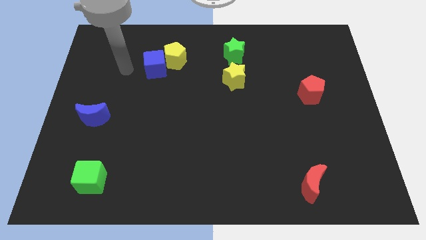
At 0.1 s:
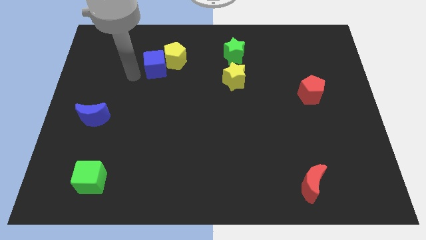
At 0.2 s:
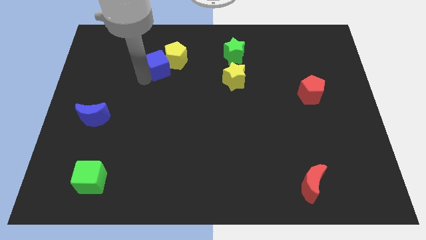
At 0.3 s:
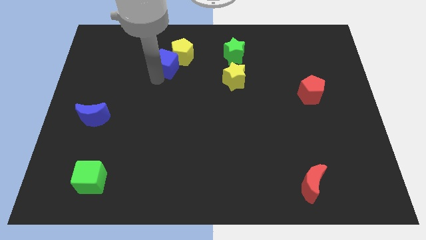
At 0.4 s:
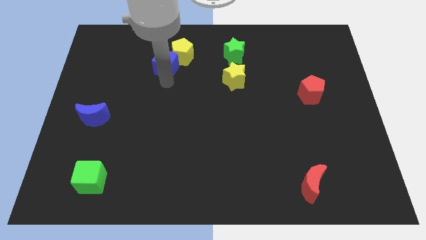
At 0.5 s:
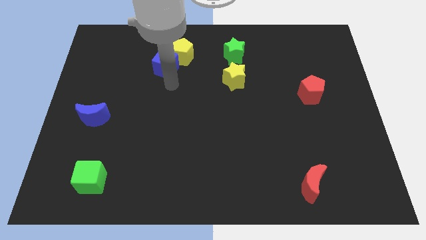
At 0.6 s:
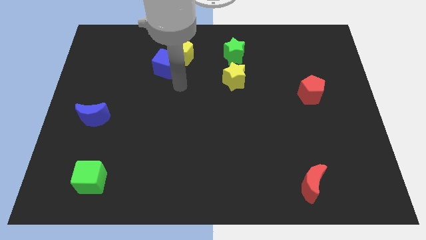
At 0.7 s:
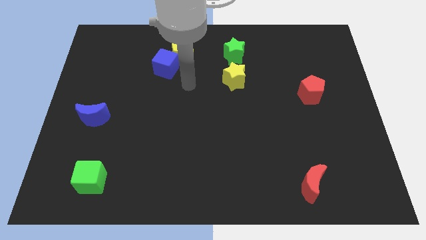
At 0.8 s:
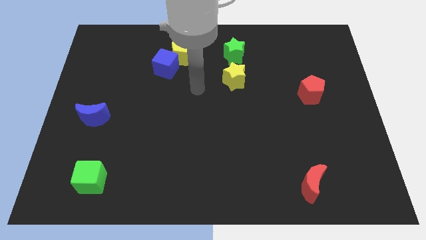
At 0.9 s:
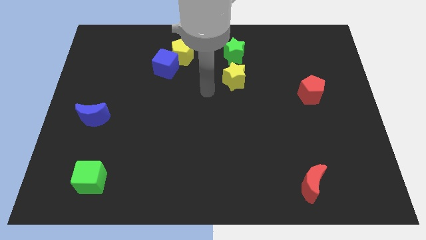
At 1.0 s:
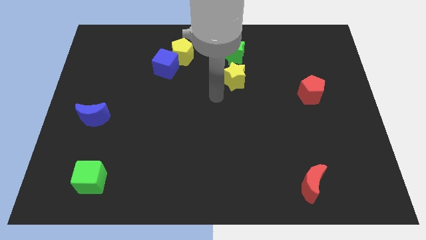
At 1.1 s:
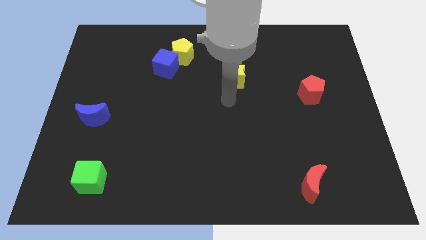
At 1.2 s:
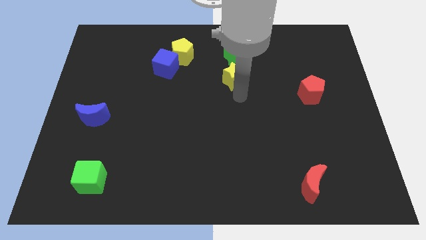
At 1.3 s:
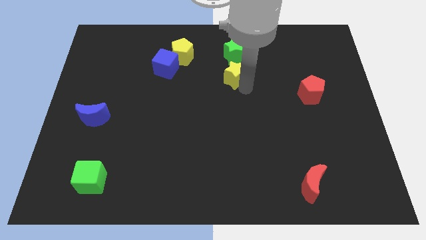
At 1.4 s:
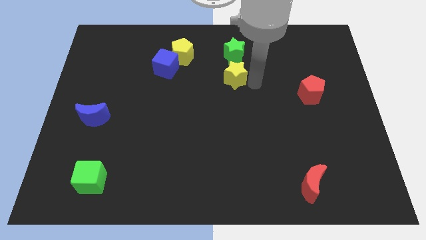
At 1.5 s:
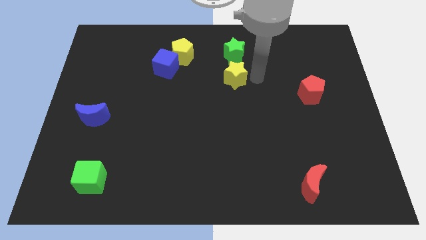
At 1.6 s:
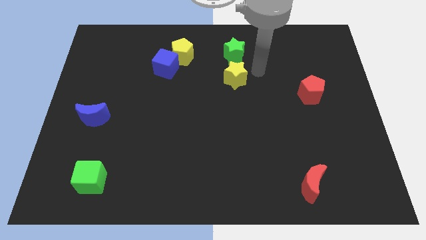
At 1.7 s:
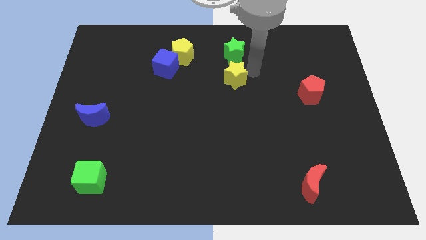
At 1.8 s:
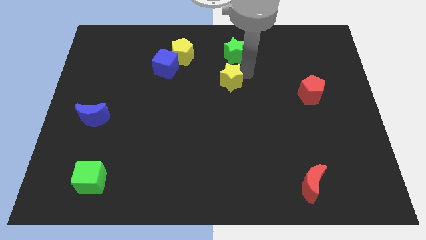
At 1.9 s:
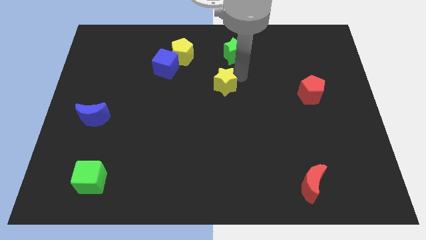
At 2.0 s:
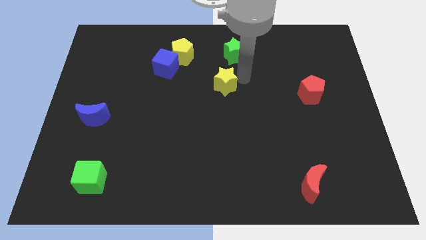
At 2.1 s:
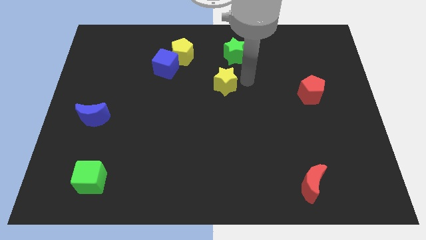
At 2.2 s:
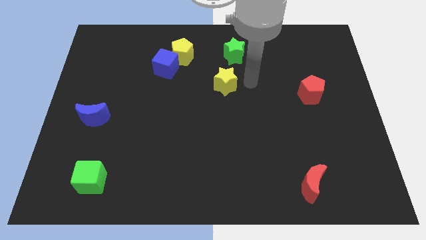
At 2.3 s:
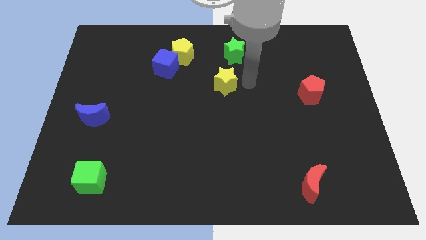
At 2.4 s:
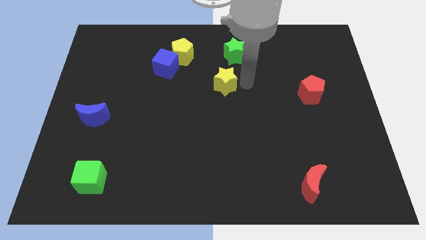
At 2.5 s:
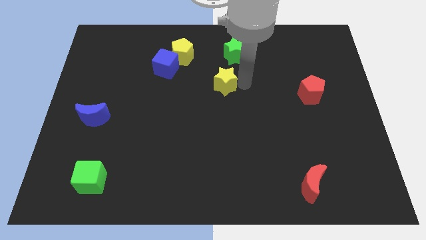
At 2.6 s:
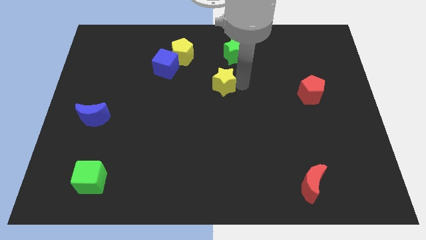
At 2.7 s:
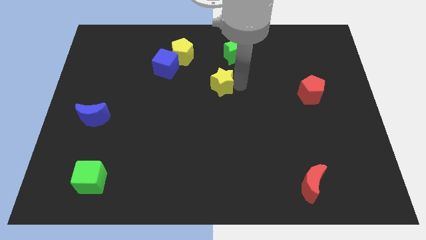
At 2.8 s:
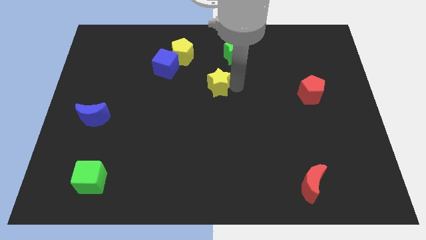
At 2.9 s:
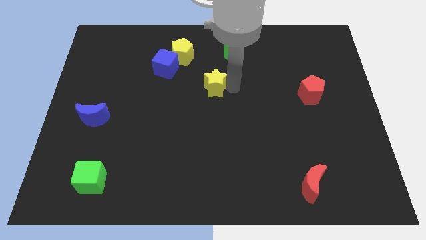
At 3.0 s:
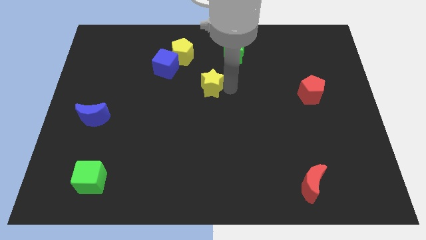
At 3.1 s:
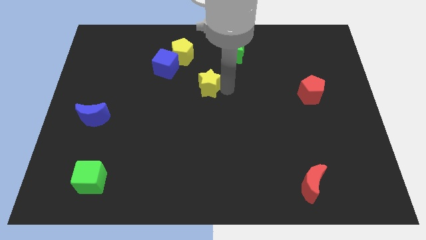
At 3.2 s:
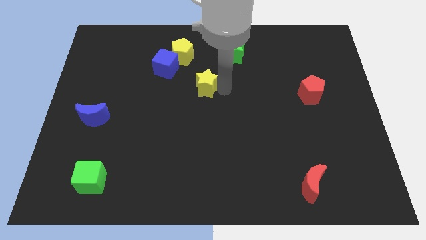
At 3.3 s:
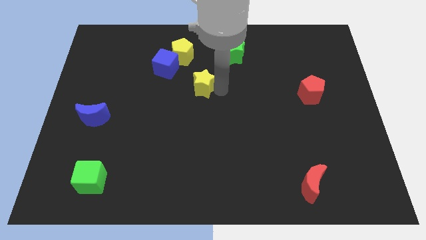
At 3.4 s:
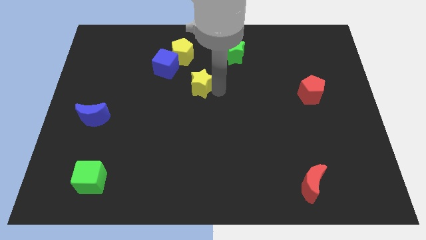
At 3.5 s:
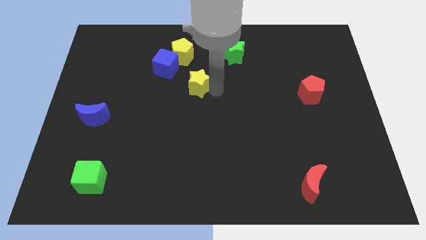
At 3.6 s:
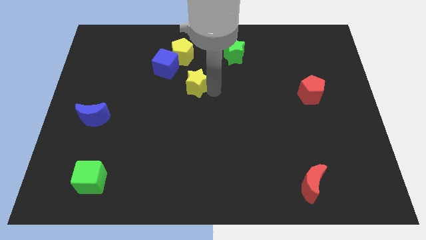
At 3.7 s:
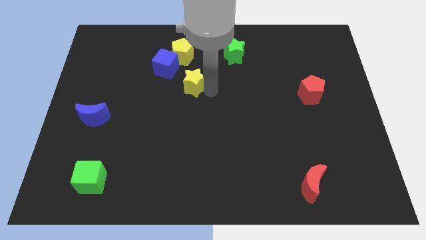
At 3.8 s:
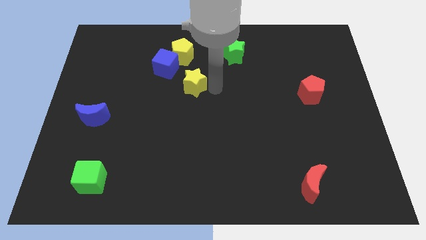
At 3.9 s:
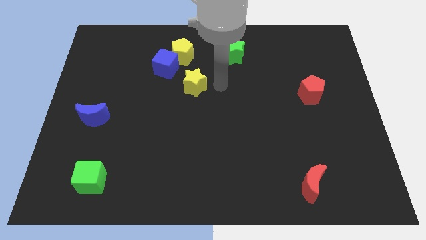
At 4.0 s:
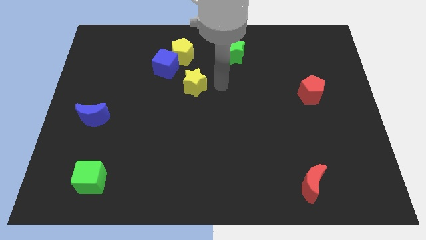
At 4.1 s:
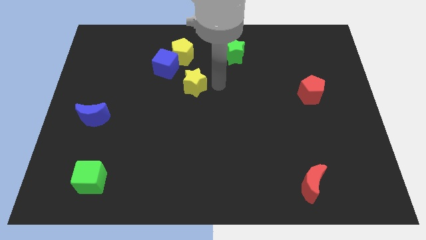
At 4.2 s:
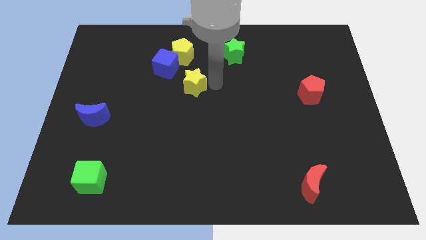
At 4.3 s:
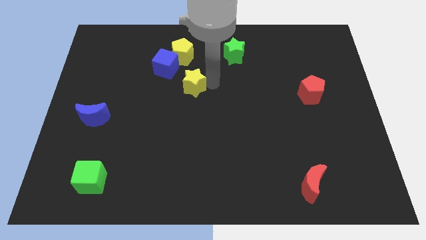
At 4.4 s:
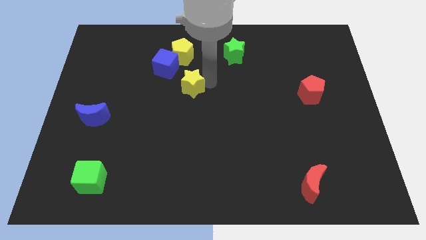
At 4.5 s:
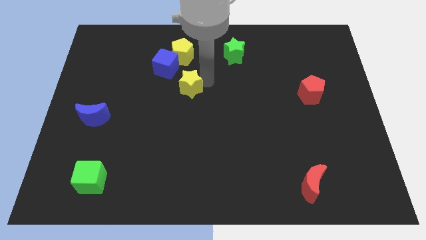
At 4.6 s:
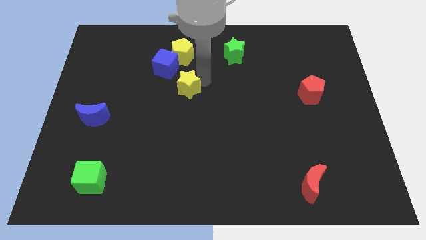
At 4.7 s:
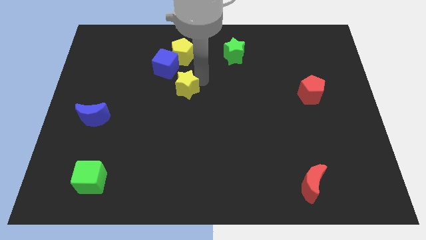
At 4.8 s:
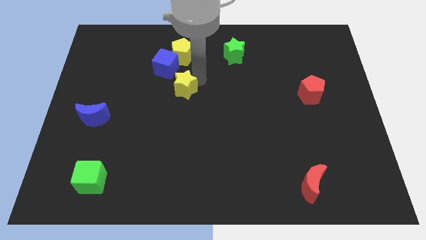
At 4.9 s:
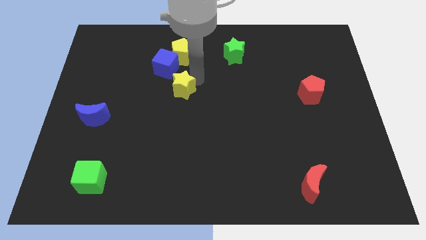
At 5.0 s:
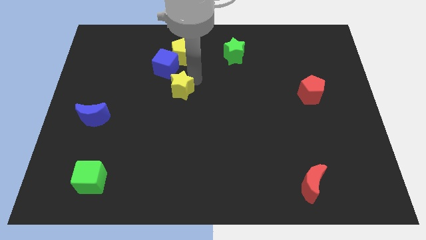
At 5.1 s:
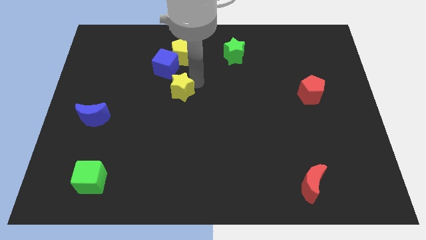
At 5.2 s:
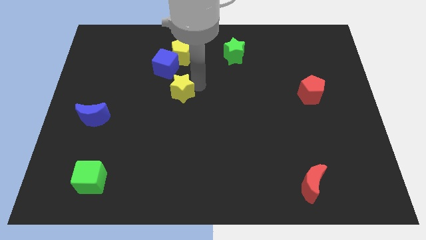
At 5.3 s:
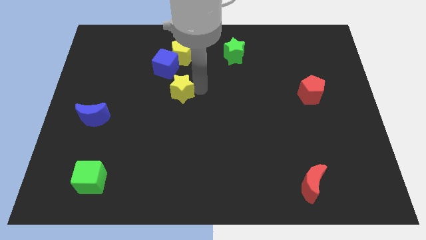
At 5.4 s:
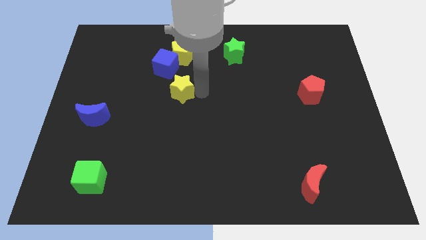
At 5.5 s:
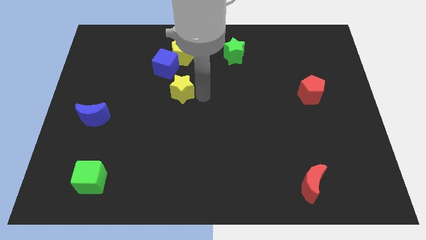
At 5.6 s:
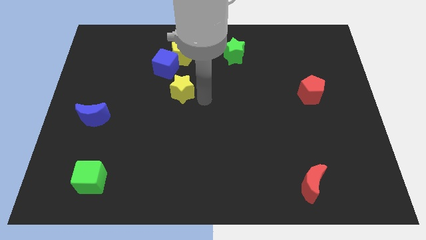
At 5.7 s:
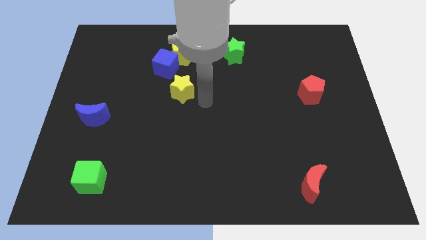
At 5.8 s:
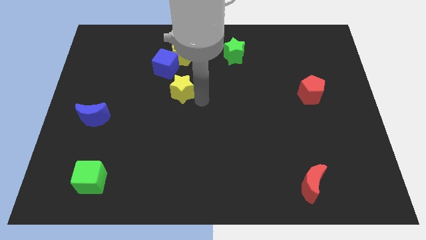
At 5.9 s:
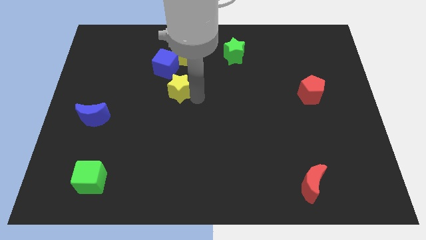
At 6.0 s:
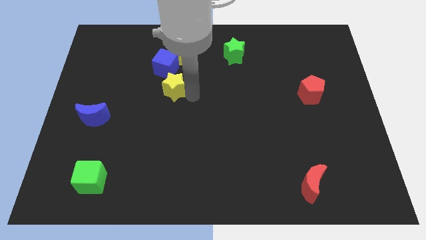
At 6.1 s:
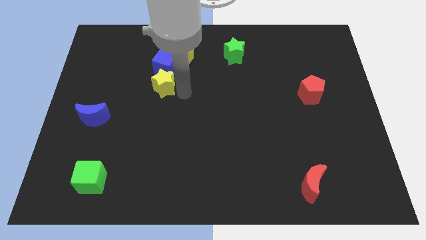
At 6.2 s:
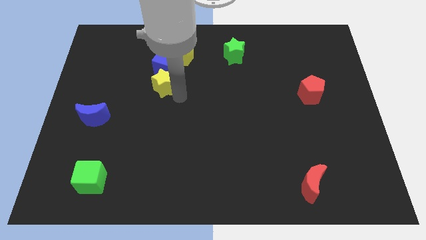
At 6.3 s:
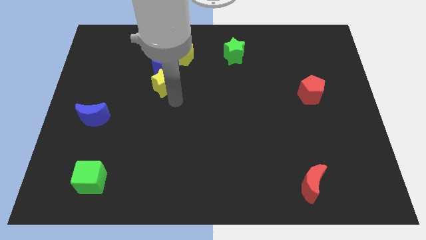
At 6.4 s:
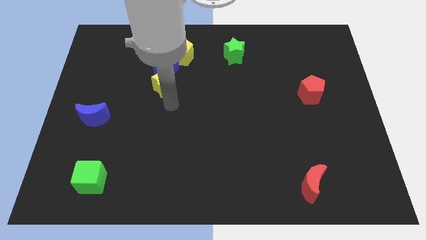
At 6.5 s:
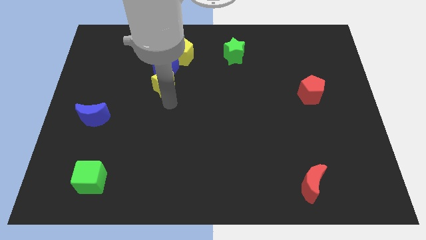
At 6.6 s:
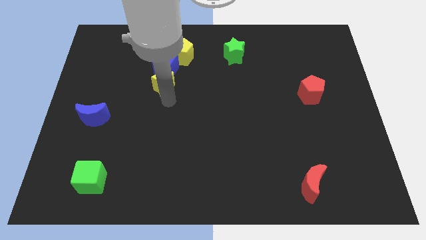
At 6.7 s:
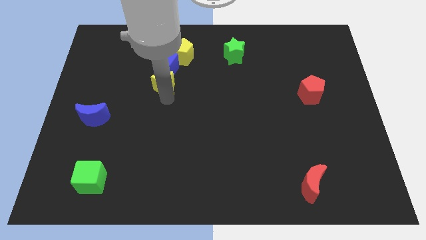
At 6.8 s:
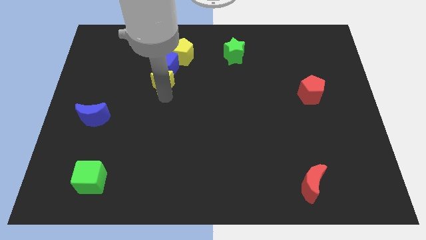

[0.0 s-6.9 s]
push the yellow star to the bottom left of the yellow pentagon
